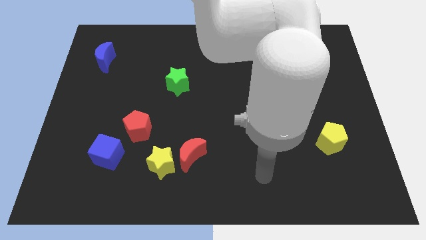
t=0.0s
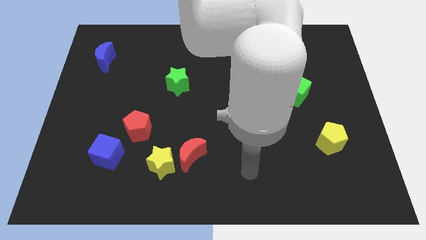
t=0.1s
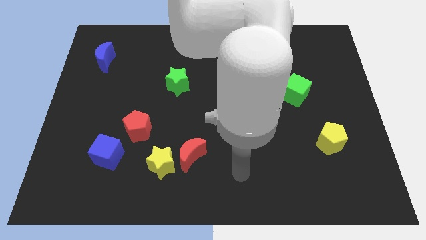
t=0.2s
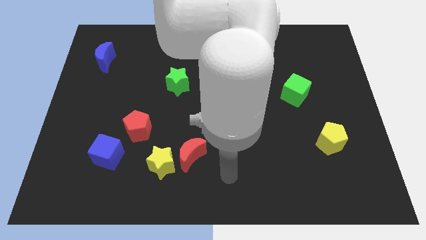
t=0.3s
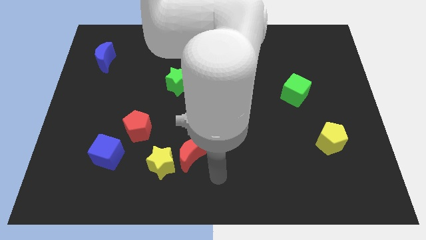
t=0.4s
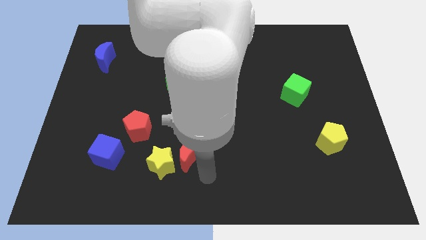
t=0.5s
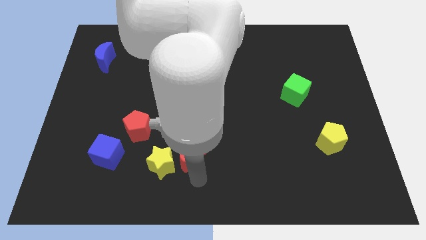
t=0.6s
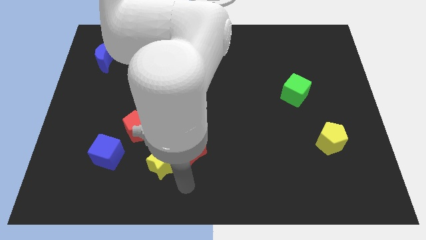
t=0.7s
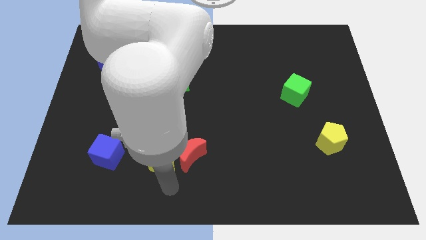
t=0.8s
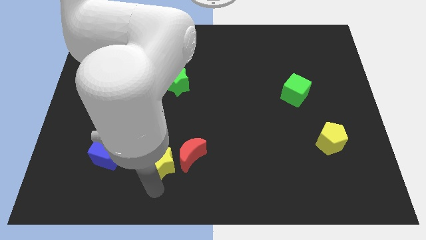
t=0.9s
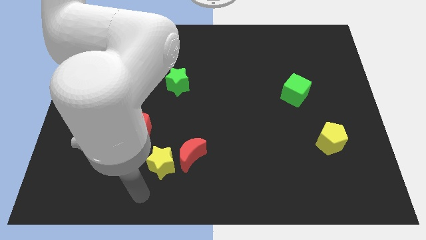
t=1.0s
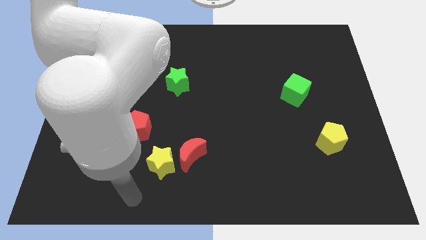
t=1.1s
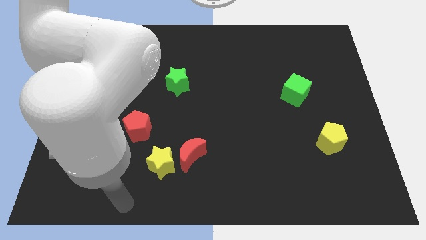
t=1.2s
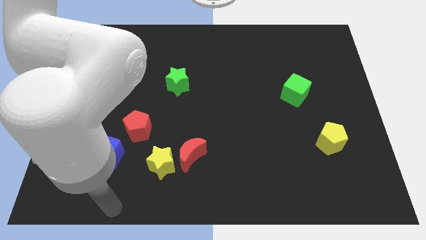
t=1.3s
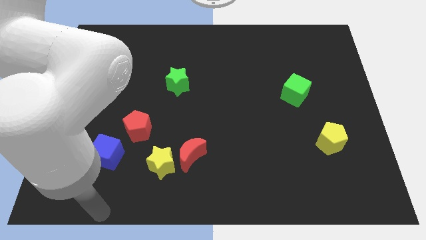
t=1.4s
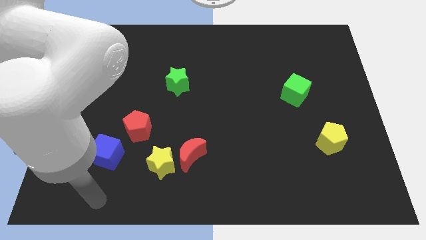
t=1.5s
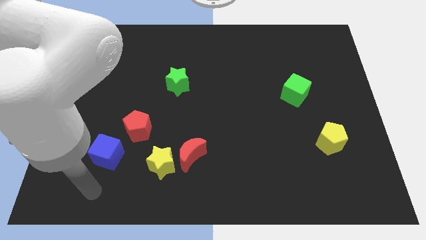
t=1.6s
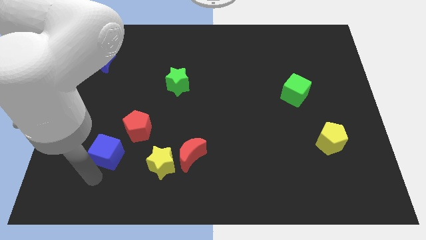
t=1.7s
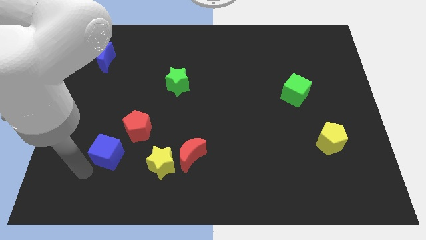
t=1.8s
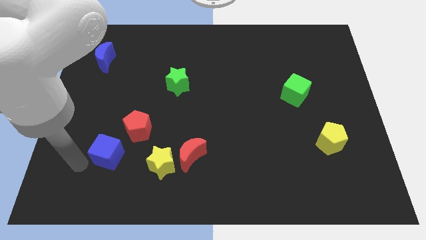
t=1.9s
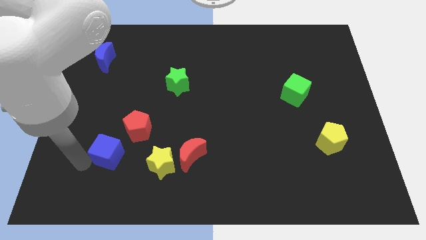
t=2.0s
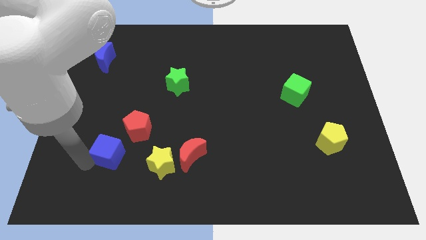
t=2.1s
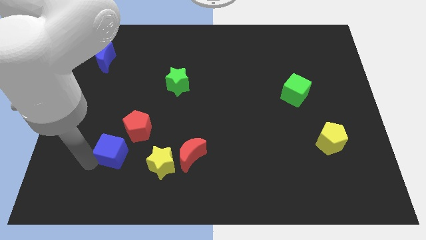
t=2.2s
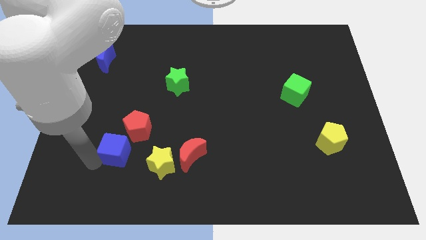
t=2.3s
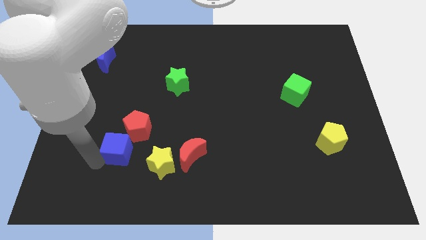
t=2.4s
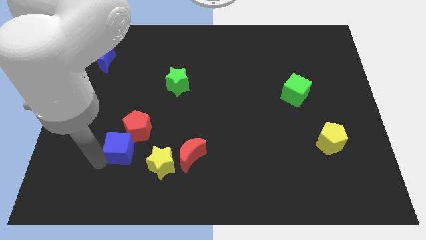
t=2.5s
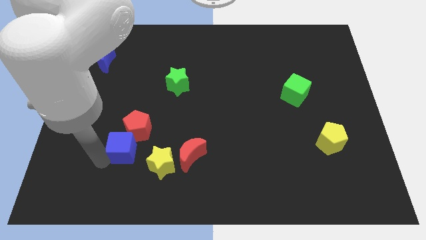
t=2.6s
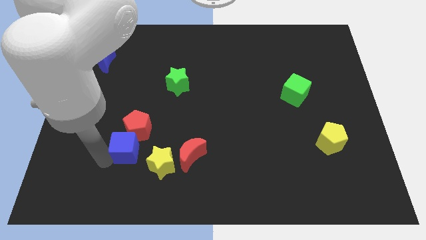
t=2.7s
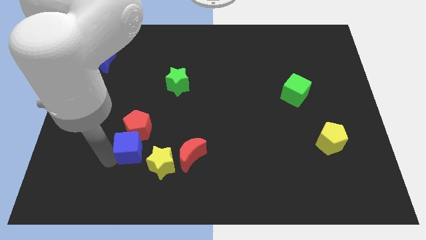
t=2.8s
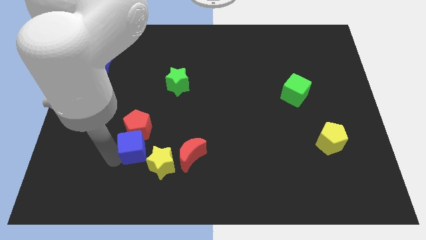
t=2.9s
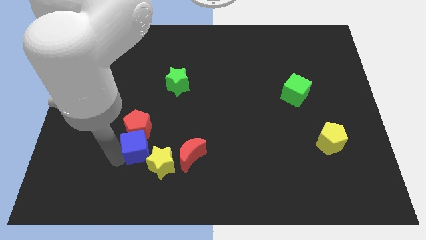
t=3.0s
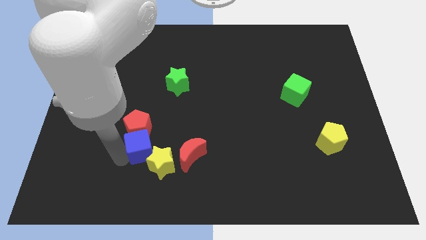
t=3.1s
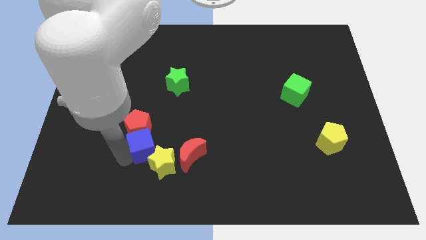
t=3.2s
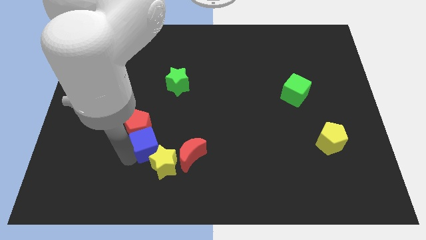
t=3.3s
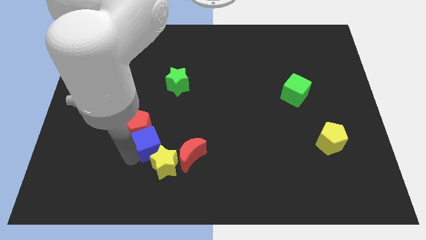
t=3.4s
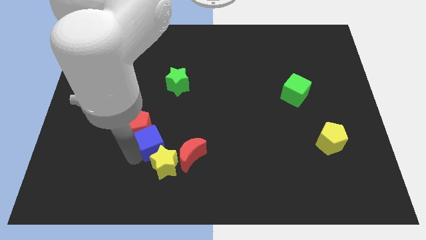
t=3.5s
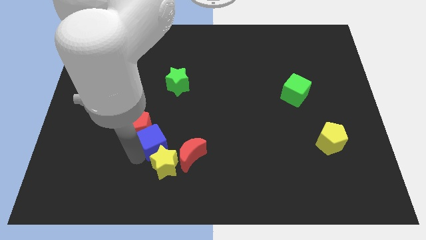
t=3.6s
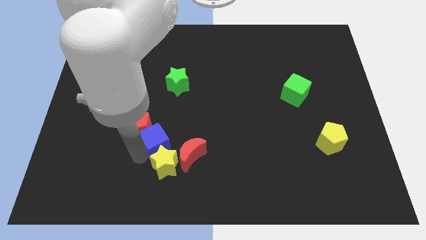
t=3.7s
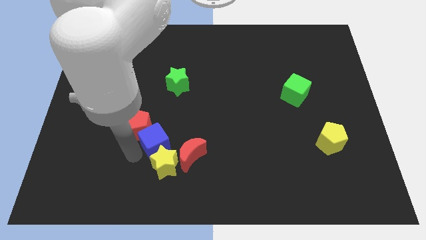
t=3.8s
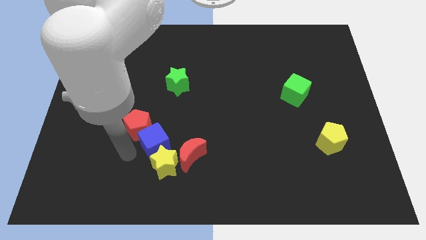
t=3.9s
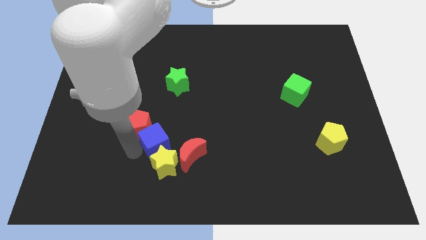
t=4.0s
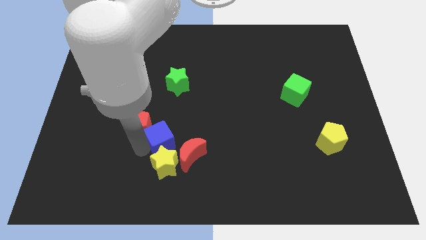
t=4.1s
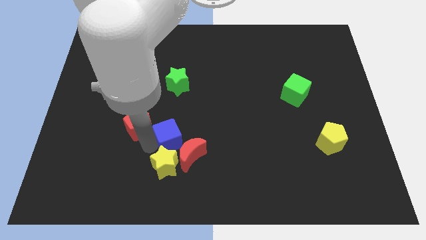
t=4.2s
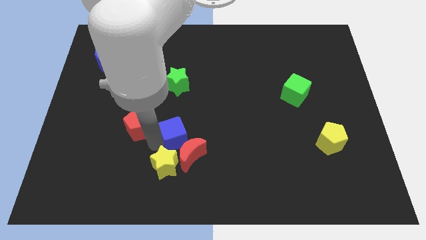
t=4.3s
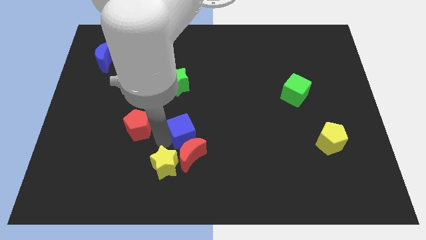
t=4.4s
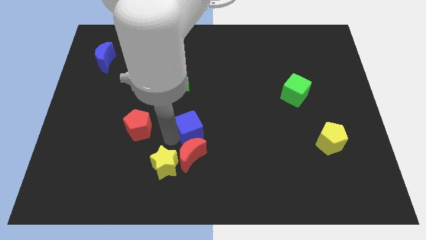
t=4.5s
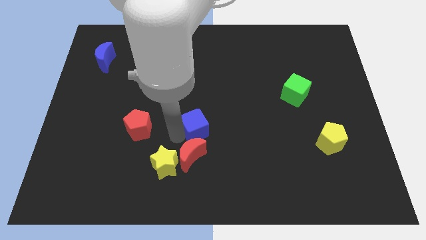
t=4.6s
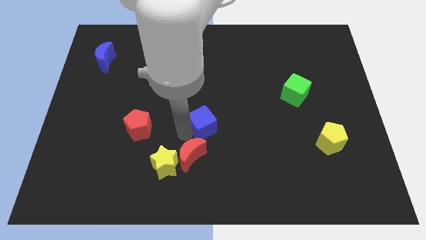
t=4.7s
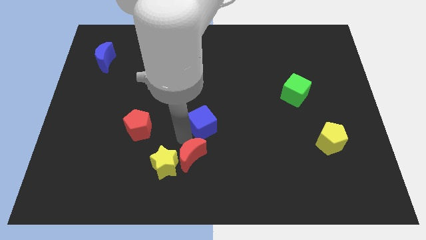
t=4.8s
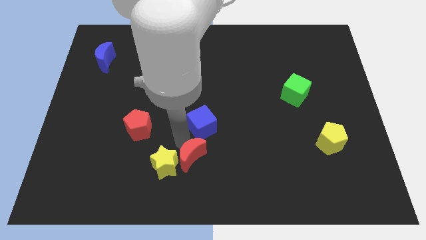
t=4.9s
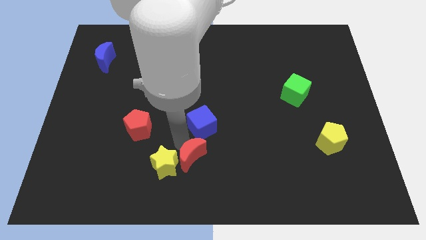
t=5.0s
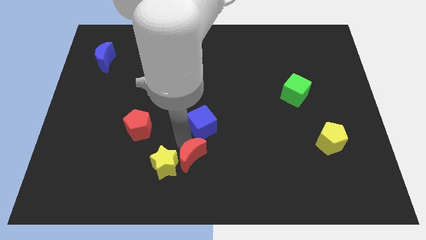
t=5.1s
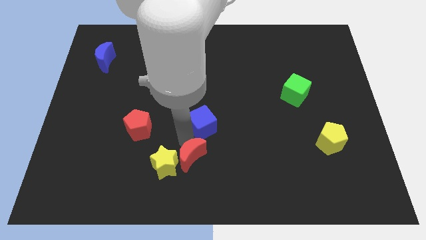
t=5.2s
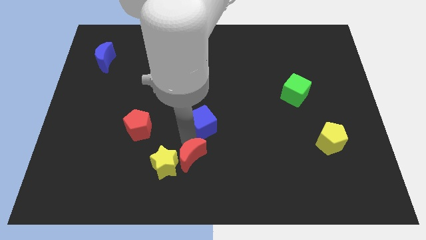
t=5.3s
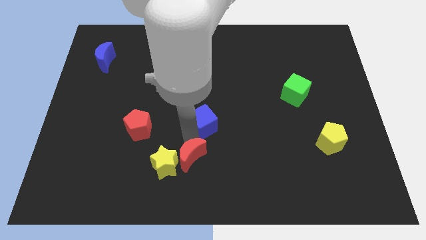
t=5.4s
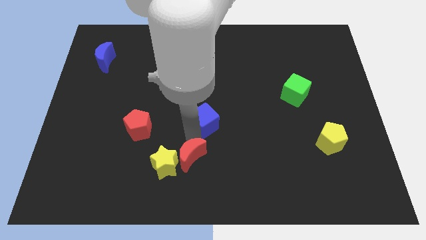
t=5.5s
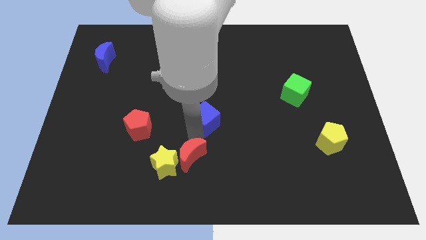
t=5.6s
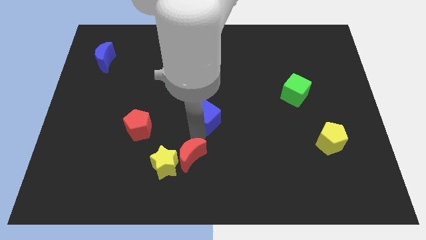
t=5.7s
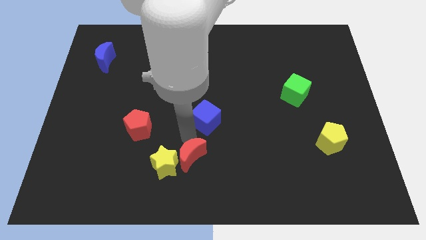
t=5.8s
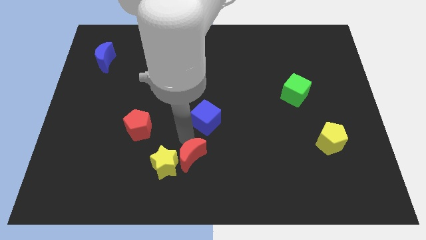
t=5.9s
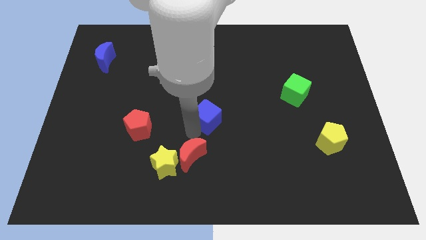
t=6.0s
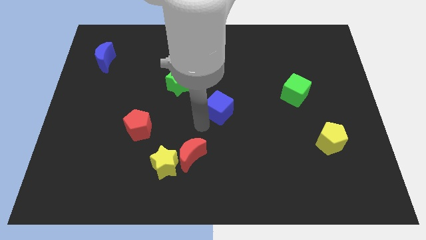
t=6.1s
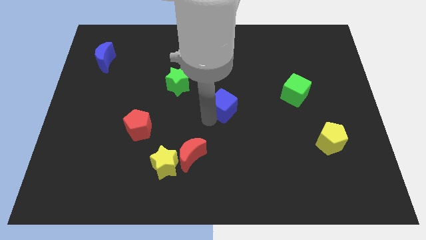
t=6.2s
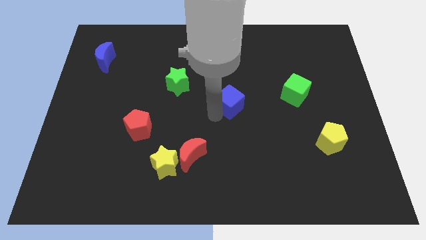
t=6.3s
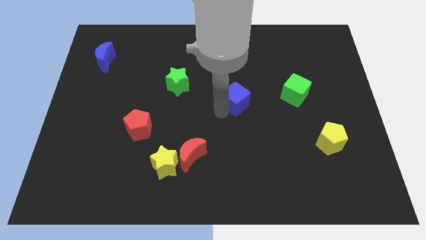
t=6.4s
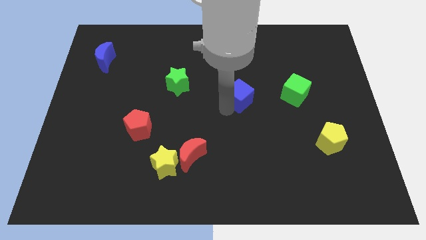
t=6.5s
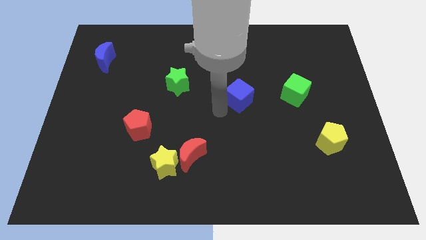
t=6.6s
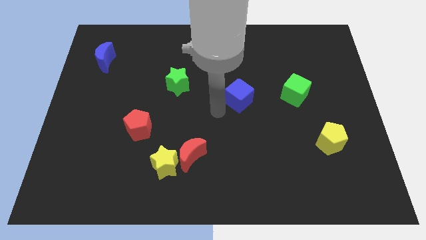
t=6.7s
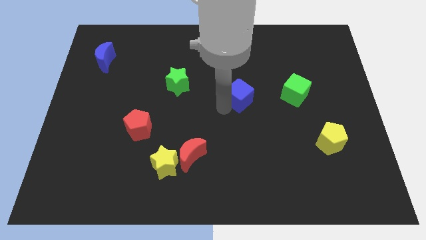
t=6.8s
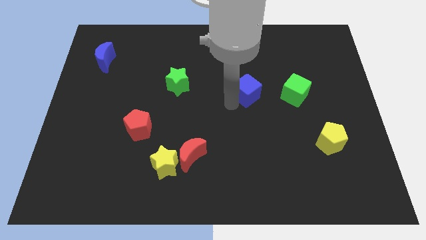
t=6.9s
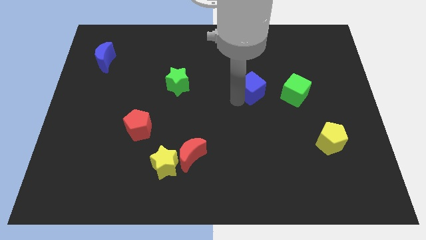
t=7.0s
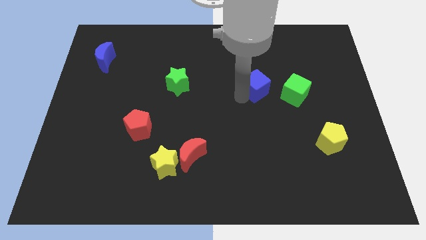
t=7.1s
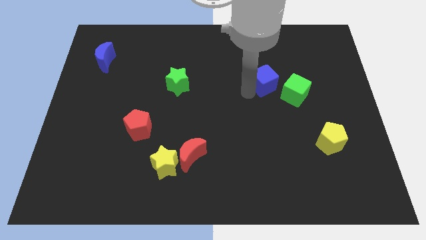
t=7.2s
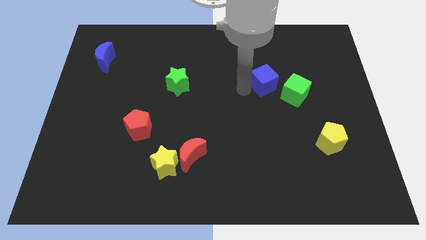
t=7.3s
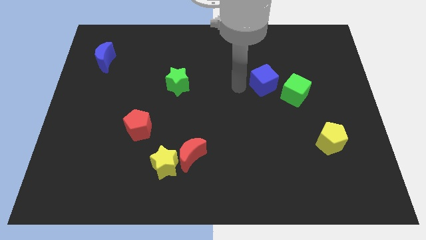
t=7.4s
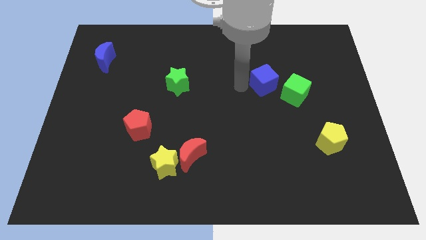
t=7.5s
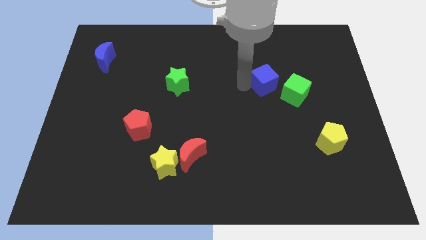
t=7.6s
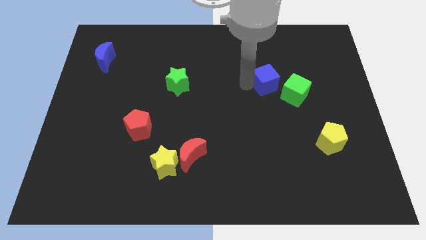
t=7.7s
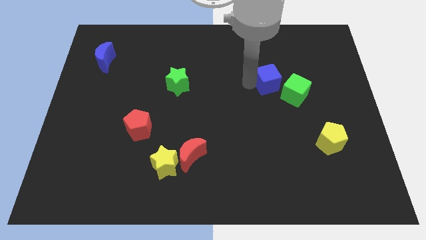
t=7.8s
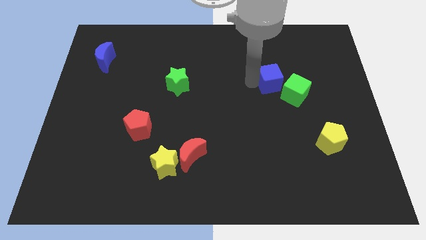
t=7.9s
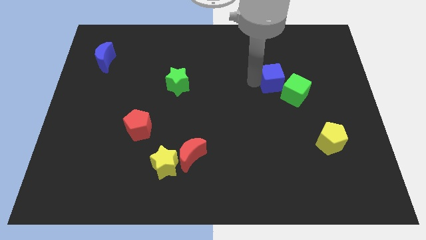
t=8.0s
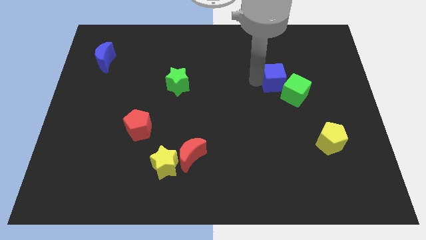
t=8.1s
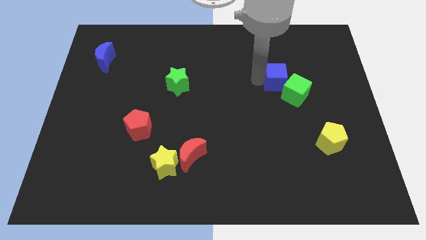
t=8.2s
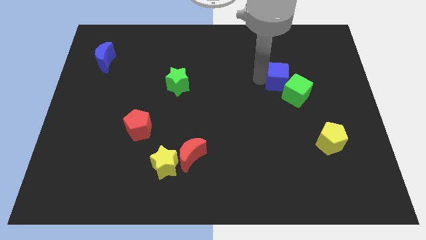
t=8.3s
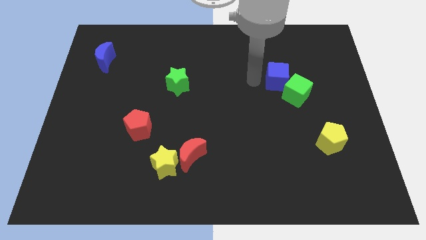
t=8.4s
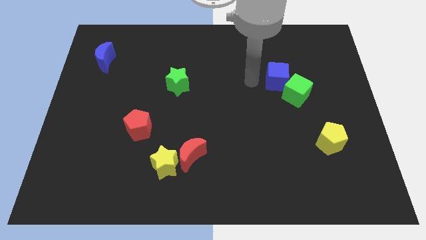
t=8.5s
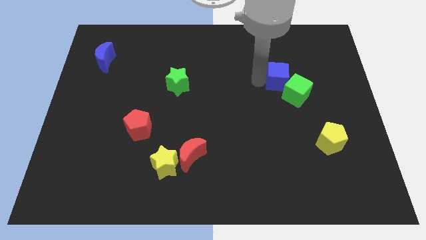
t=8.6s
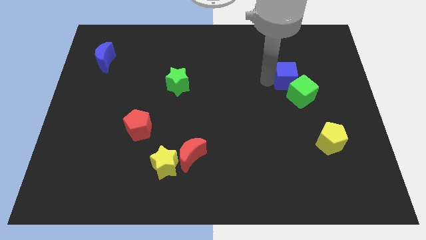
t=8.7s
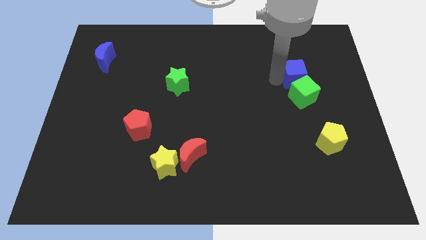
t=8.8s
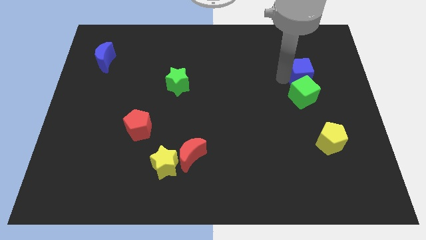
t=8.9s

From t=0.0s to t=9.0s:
slide the blue cube to the top right side of the green cube
